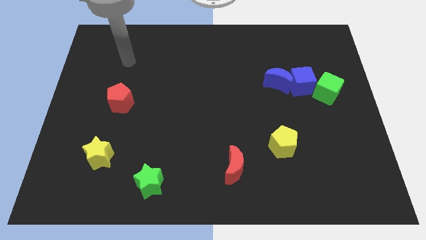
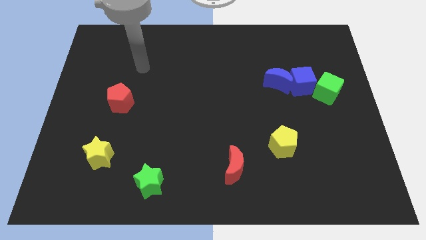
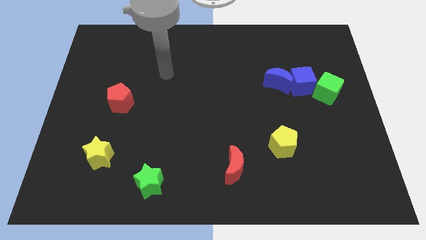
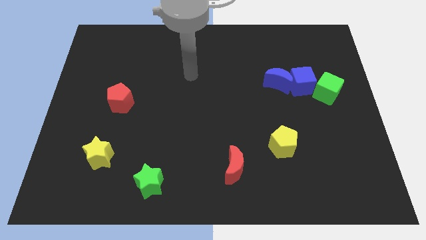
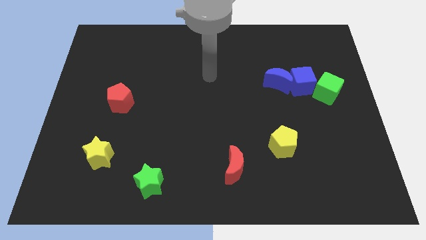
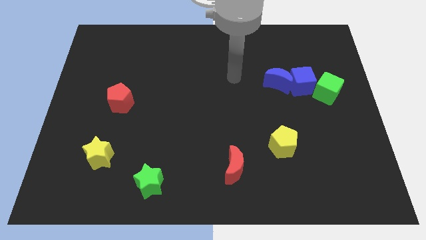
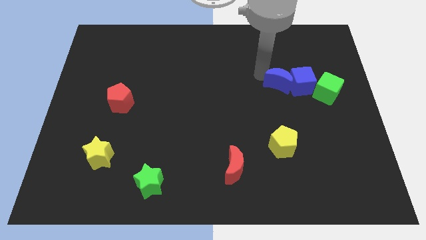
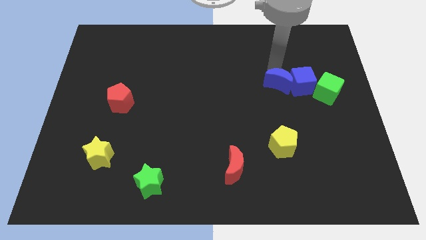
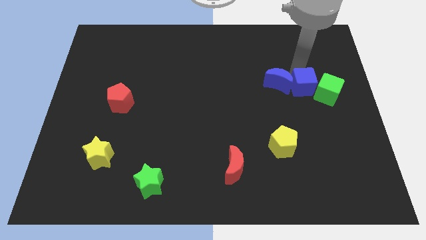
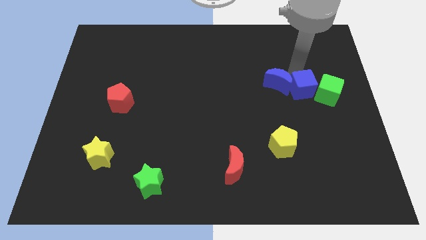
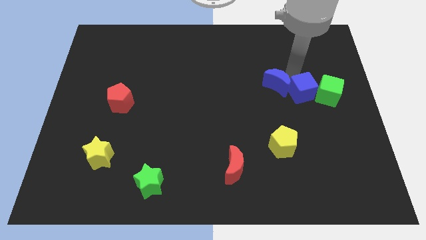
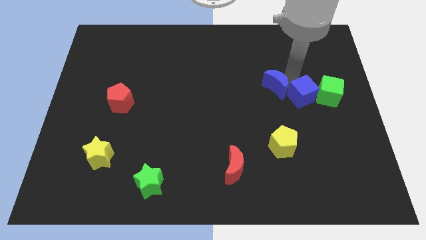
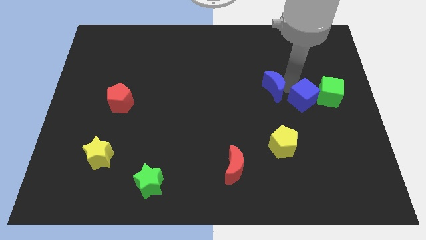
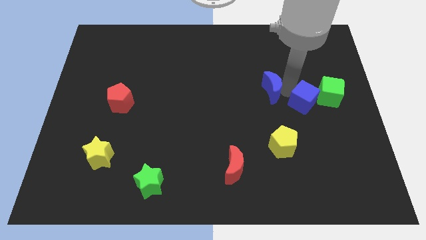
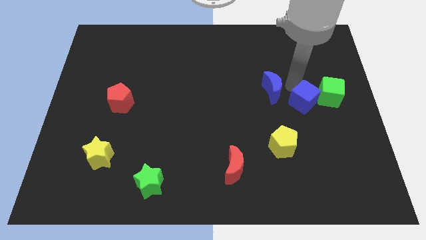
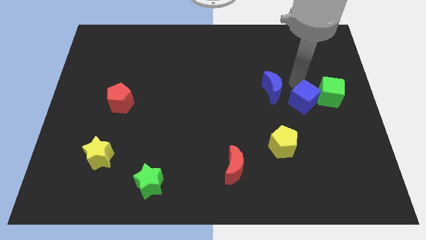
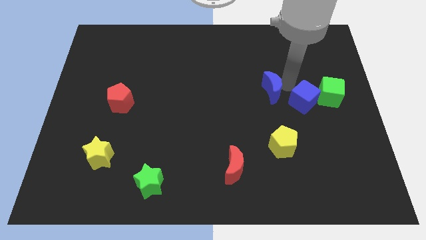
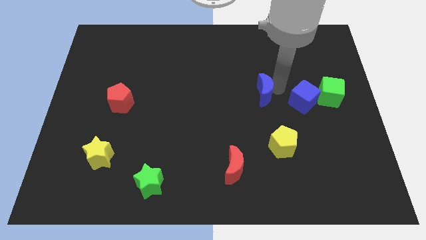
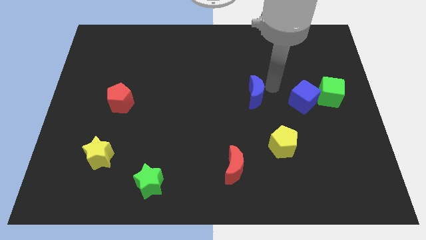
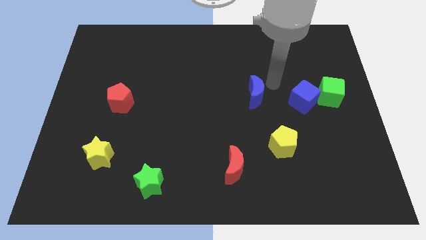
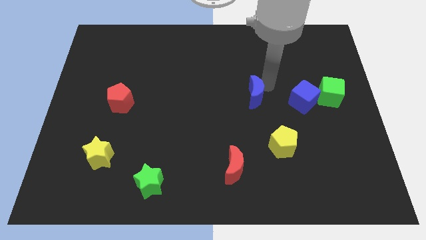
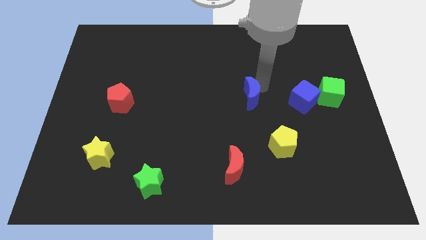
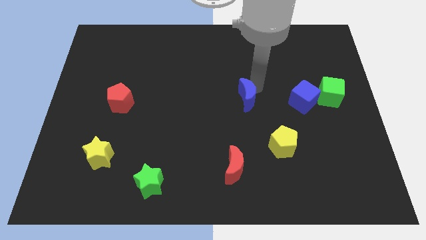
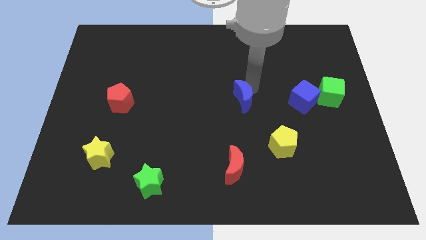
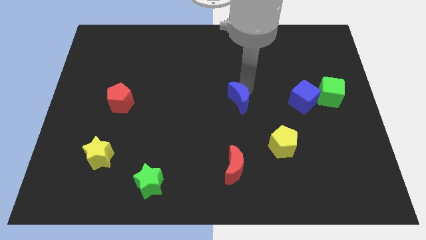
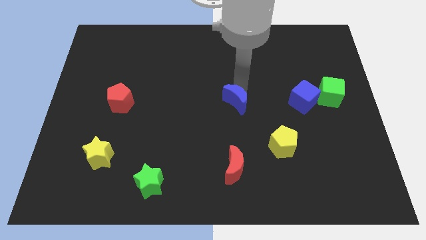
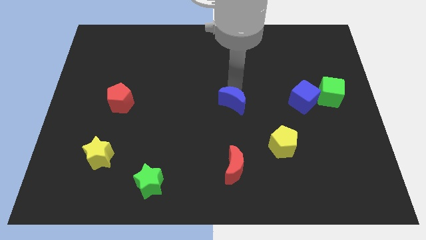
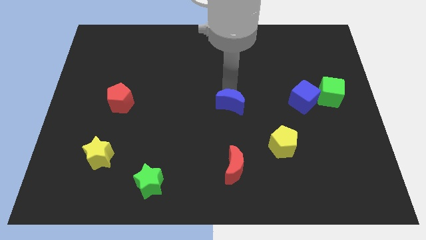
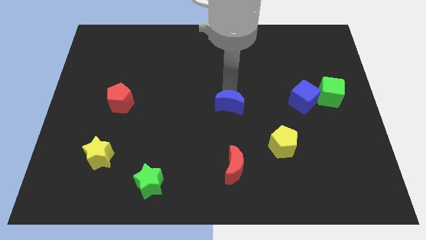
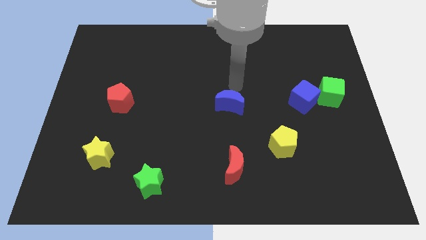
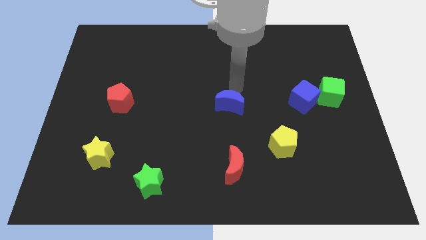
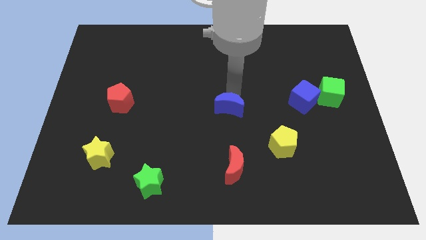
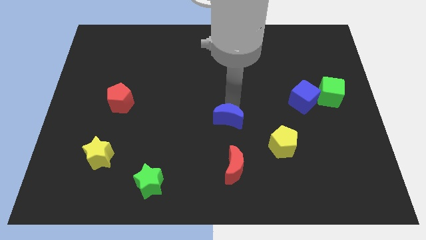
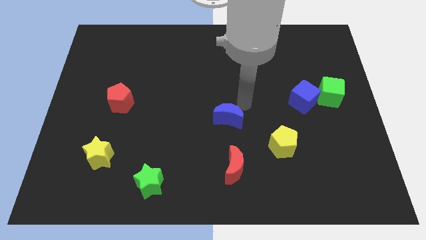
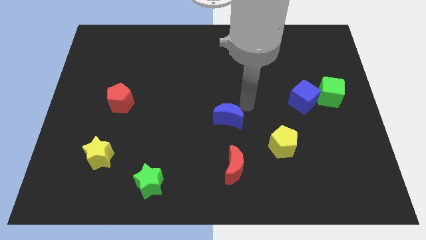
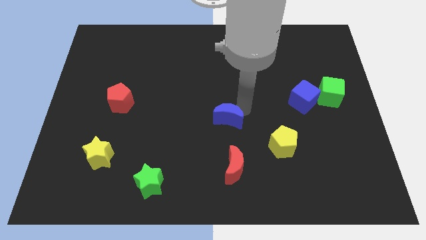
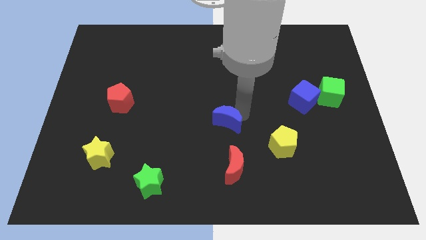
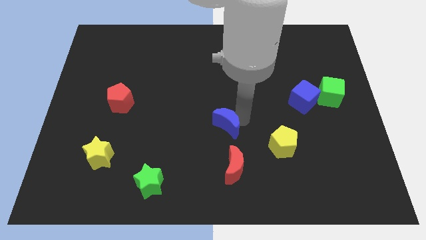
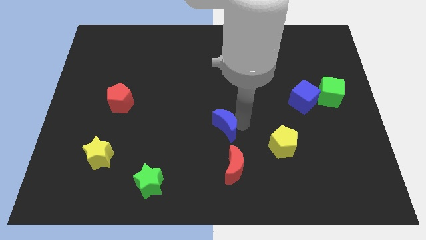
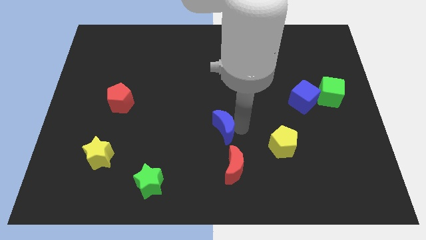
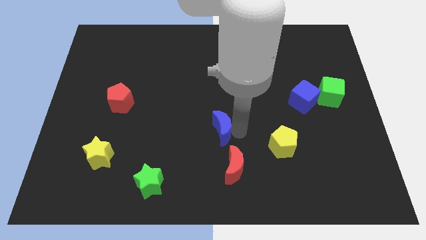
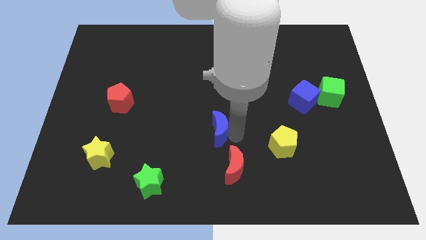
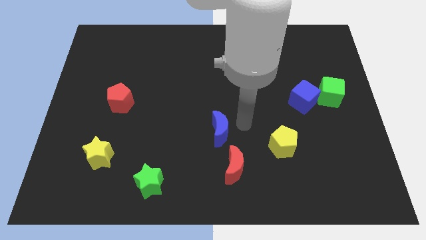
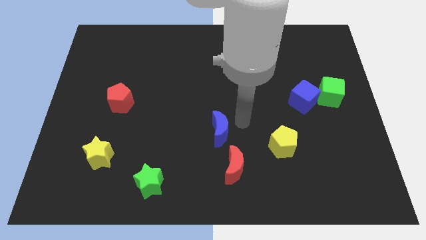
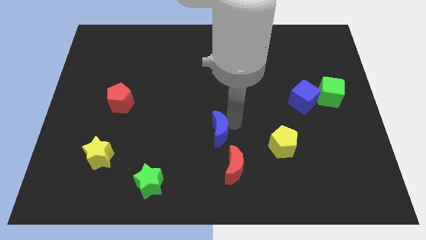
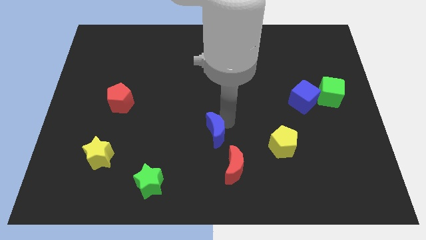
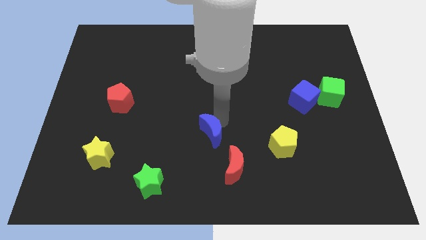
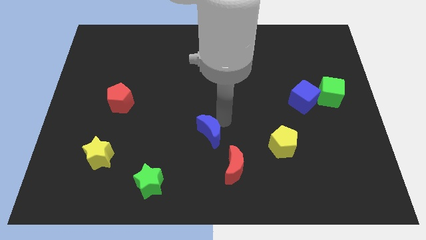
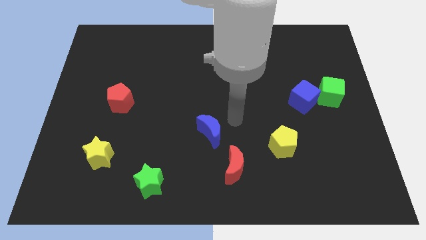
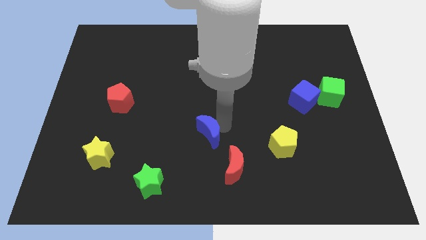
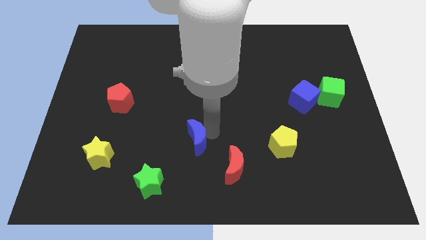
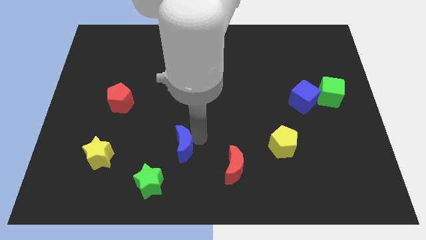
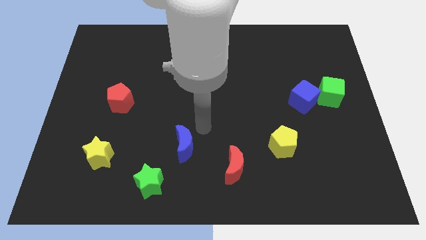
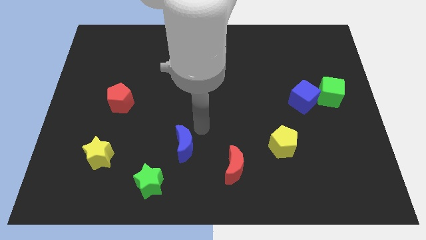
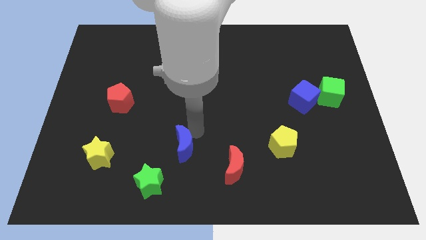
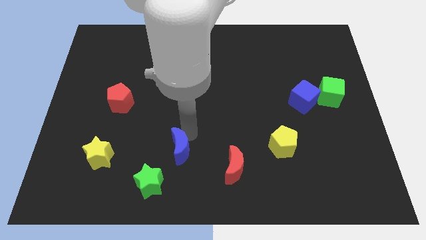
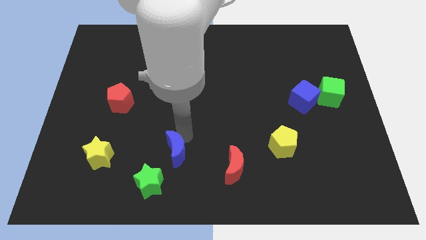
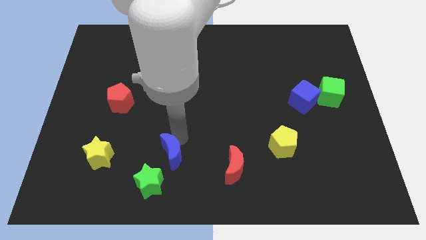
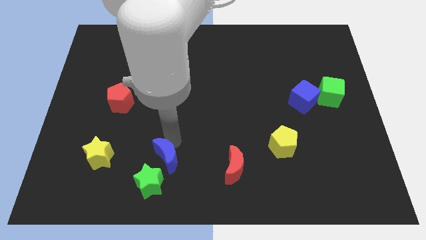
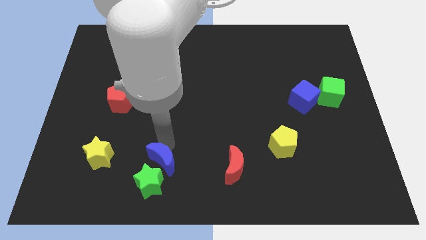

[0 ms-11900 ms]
push the blue moon towards the green star

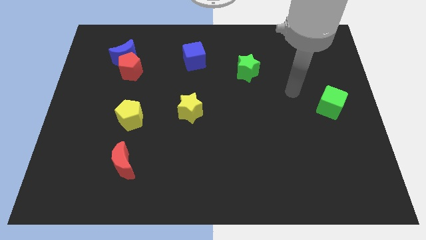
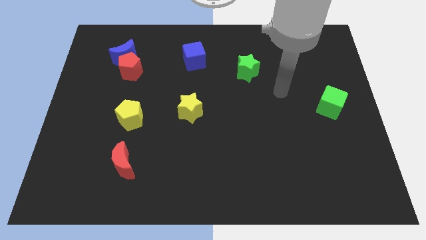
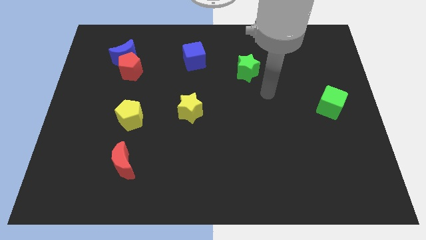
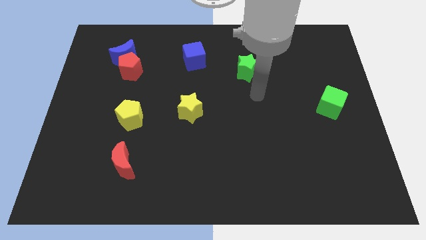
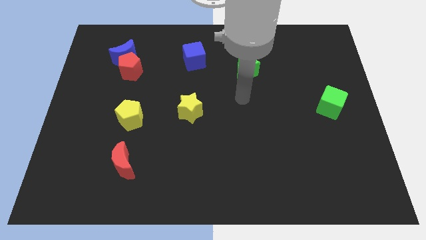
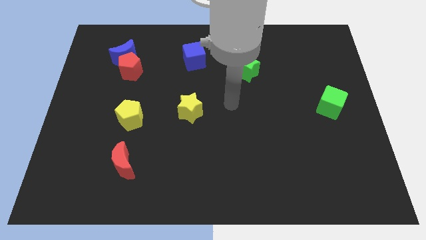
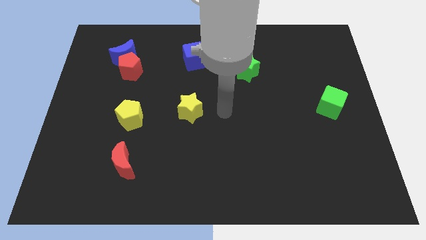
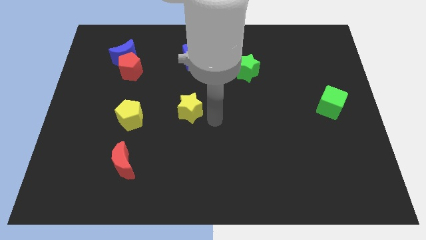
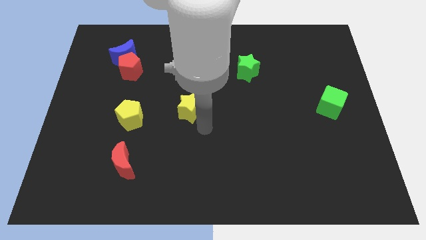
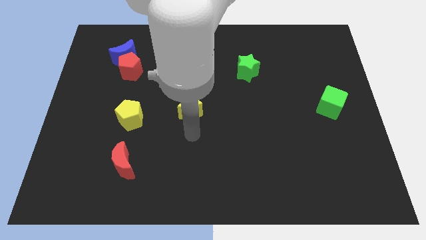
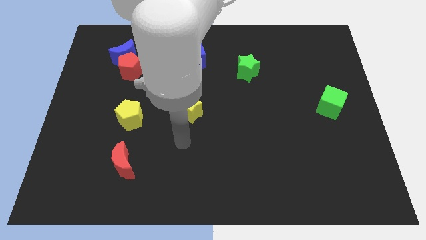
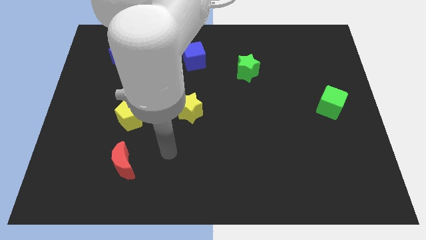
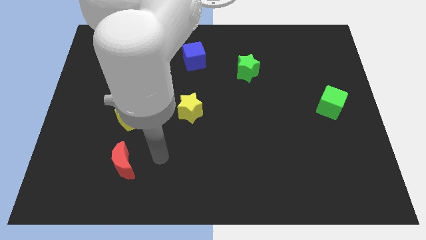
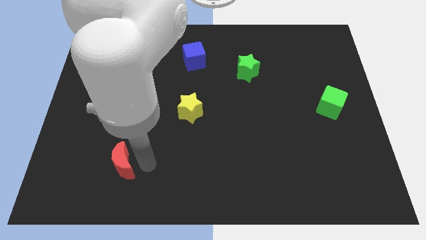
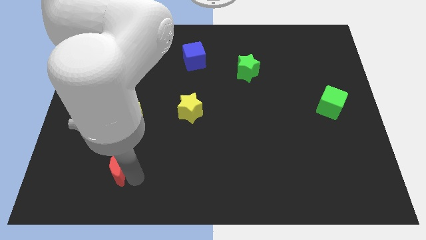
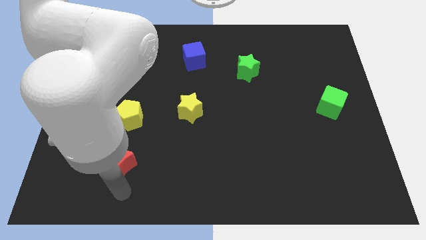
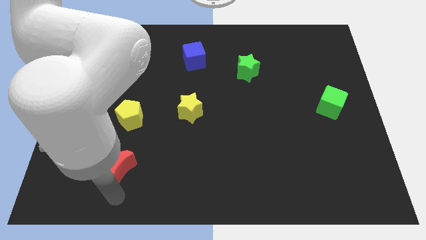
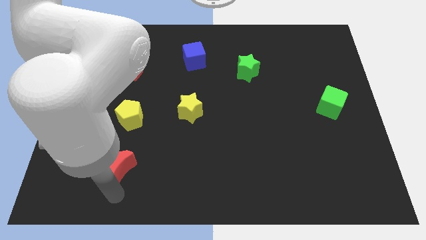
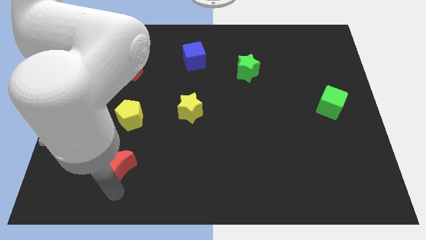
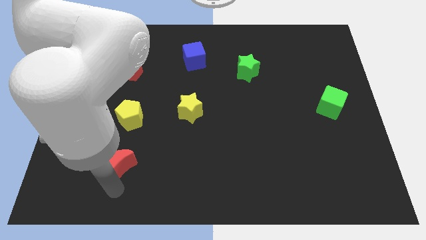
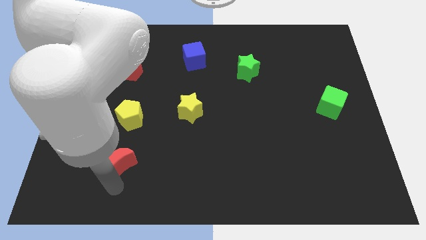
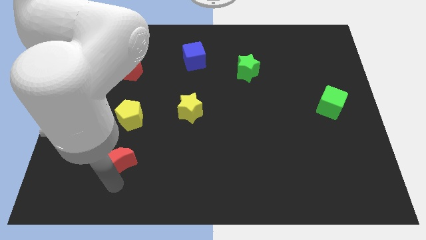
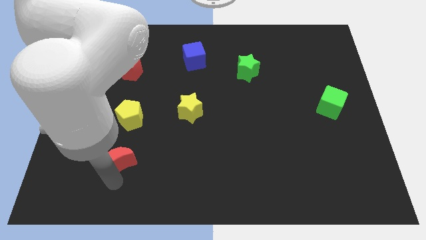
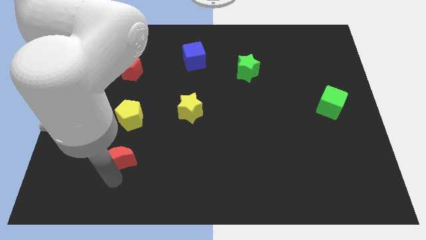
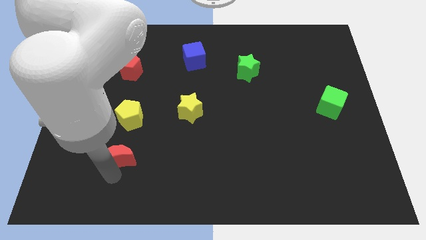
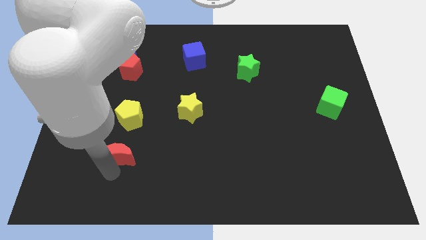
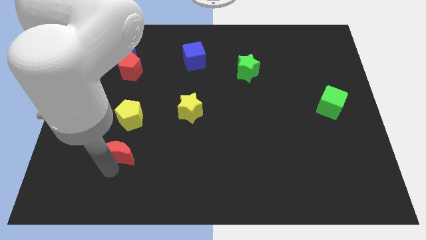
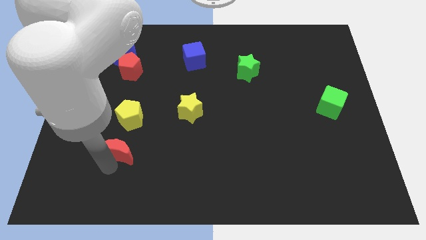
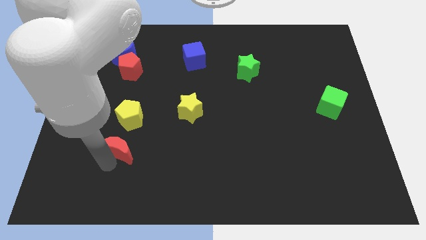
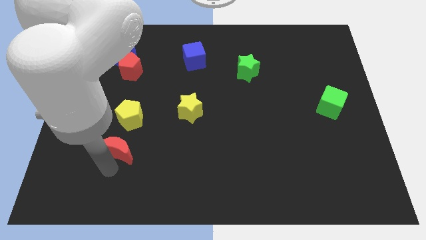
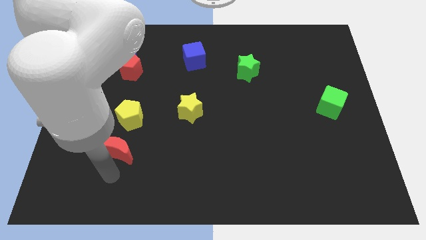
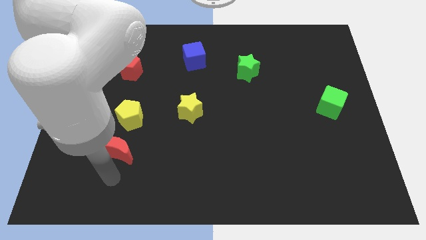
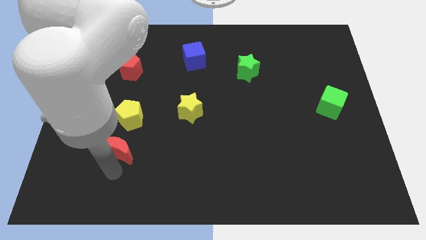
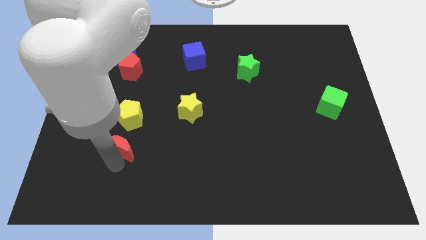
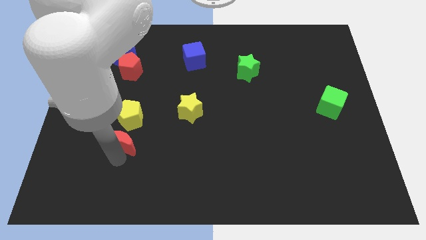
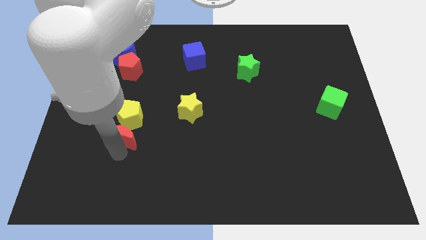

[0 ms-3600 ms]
move the red moon towards the yellow pentagon
